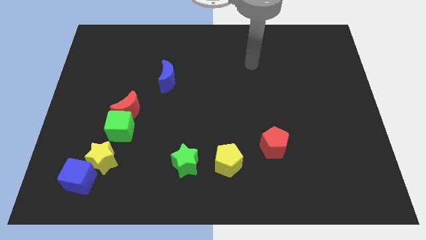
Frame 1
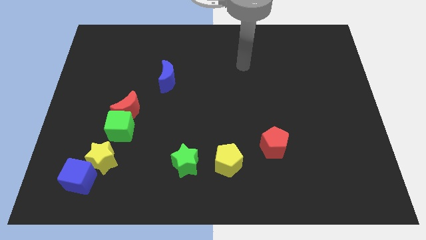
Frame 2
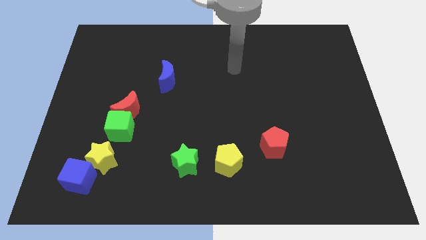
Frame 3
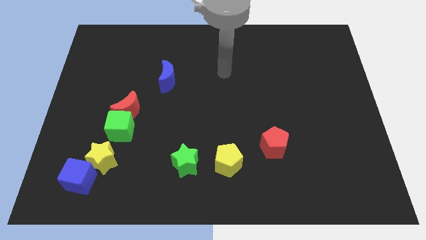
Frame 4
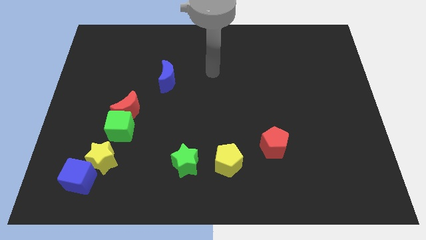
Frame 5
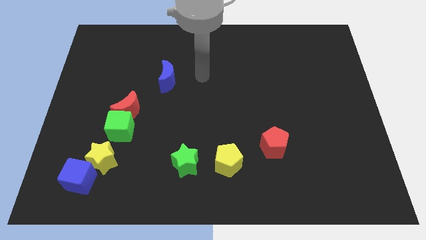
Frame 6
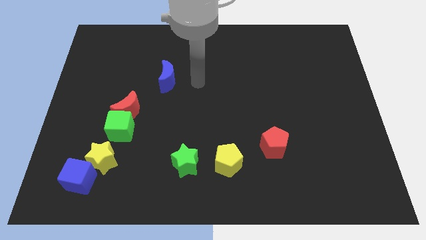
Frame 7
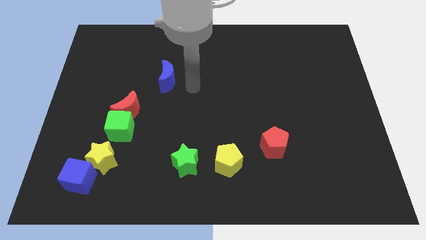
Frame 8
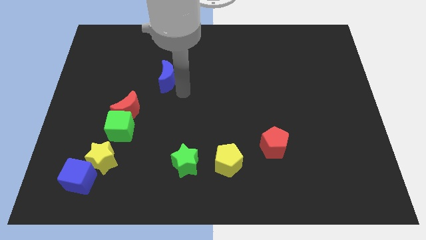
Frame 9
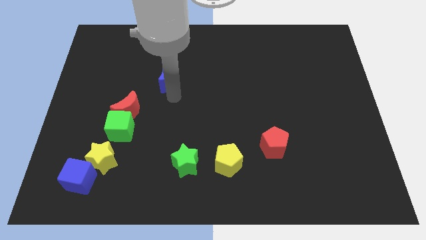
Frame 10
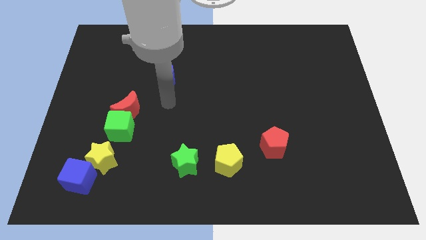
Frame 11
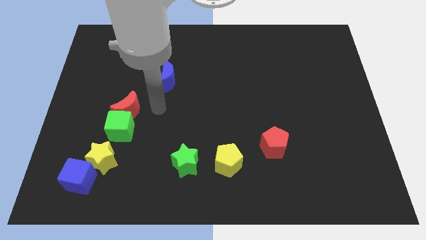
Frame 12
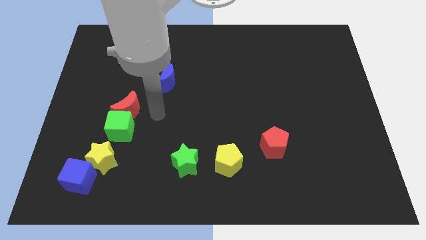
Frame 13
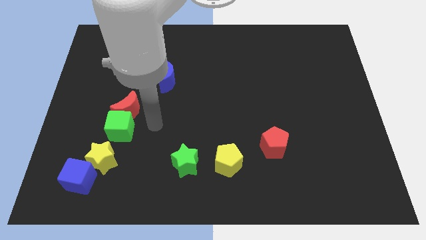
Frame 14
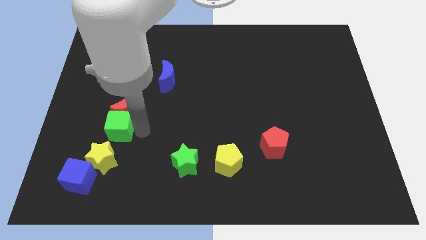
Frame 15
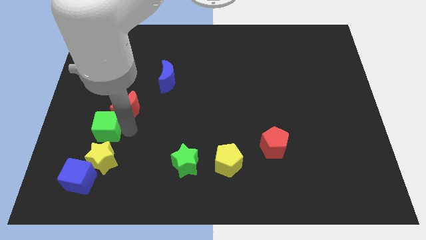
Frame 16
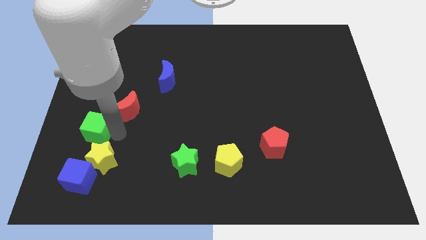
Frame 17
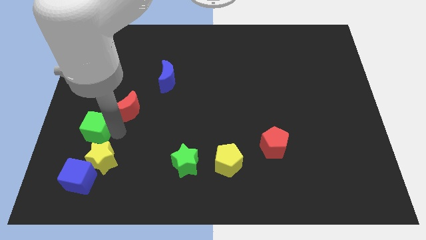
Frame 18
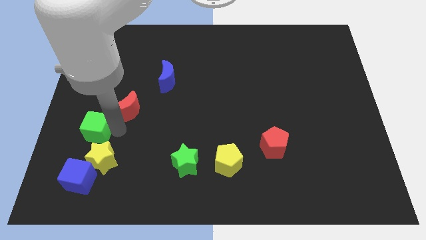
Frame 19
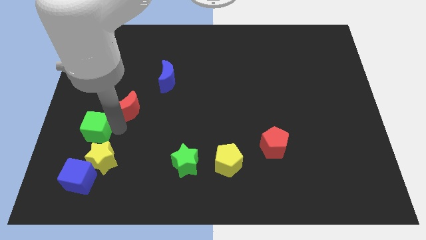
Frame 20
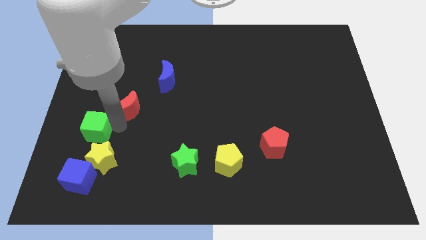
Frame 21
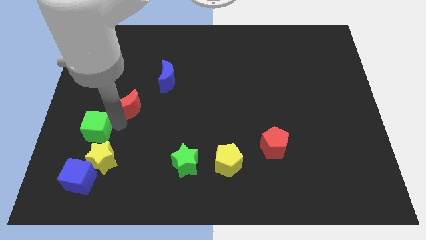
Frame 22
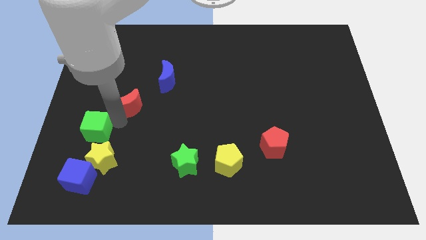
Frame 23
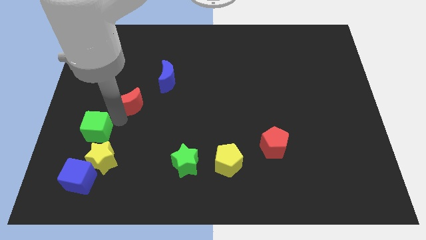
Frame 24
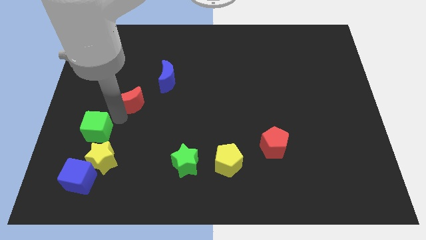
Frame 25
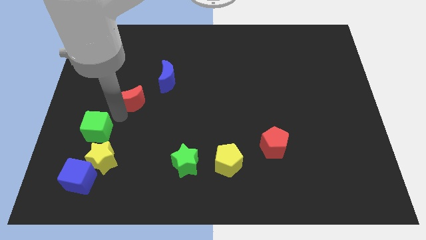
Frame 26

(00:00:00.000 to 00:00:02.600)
pull the red moon apart from the green cube

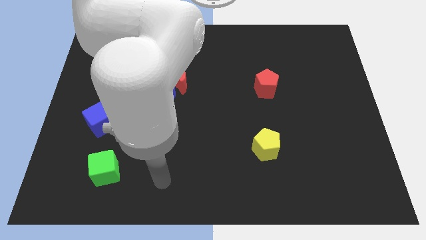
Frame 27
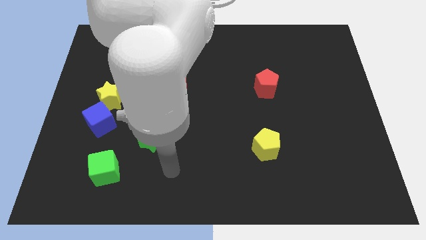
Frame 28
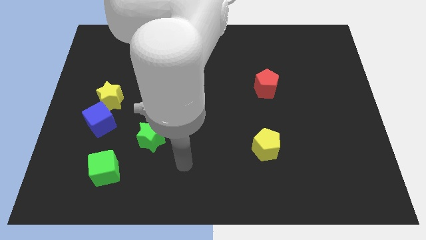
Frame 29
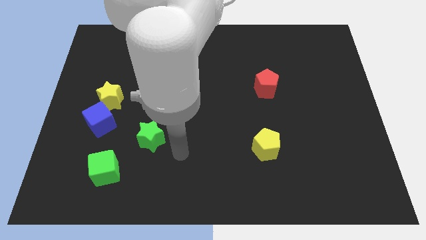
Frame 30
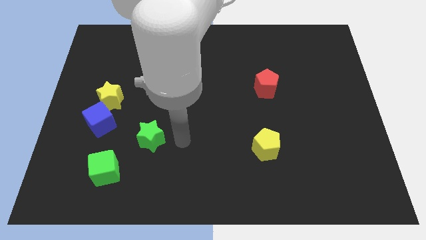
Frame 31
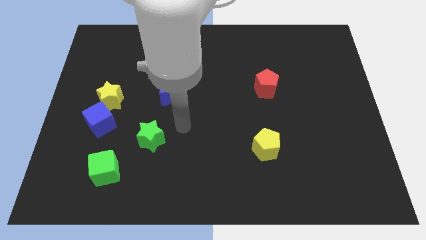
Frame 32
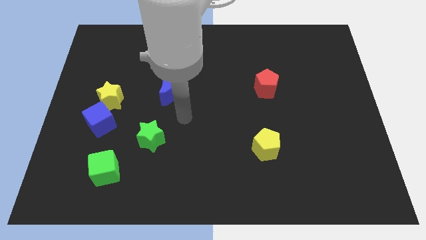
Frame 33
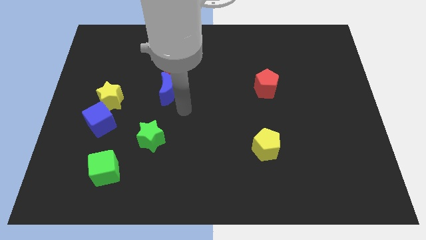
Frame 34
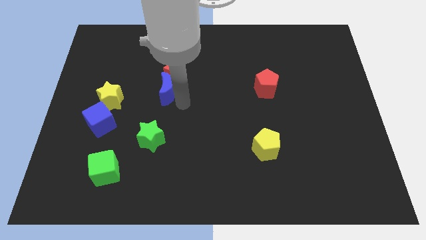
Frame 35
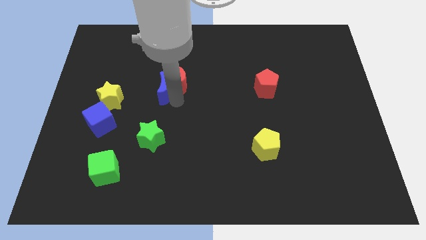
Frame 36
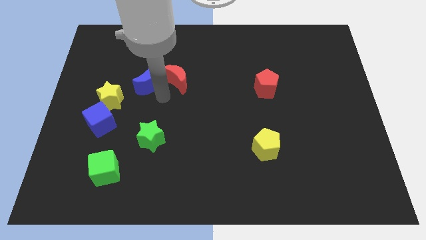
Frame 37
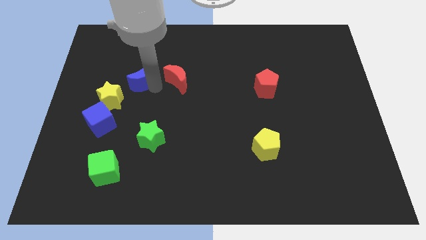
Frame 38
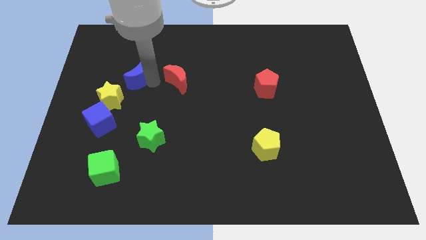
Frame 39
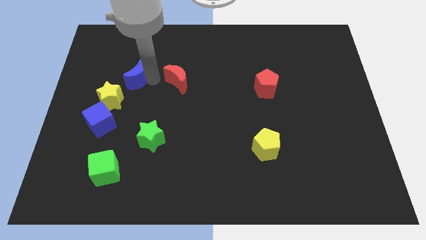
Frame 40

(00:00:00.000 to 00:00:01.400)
pull the red moon apart from the blue moon

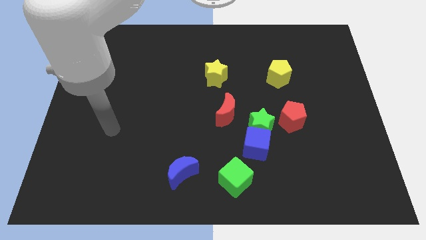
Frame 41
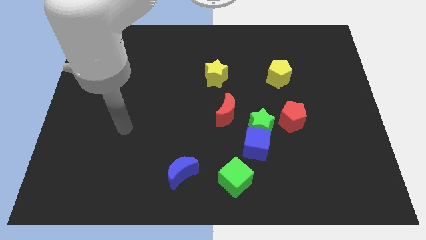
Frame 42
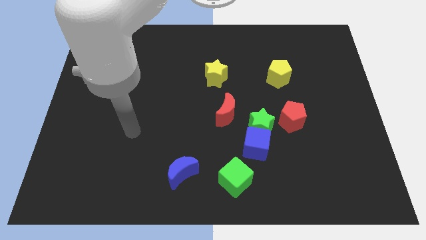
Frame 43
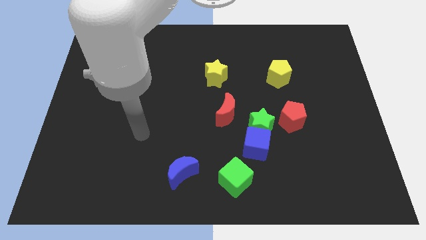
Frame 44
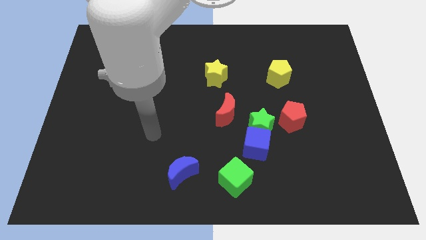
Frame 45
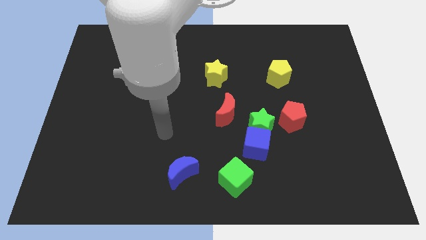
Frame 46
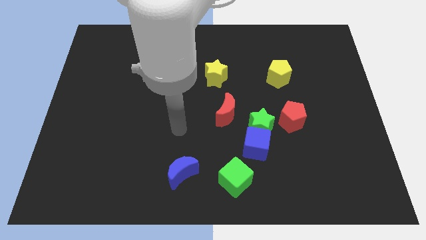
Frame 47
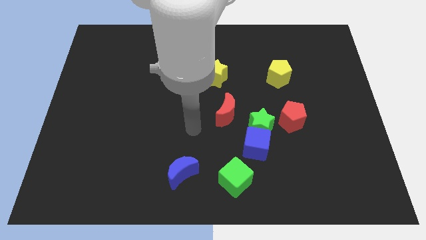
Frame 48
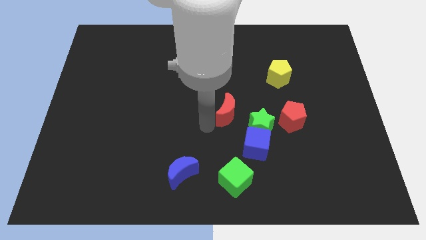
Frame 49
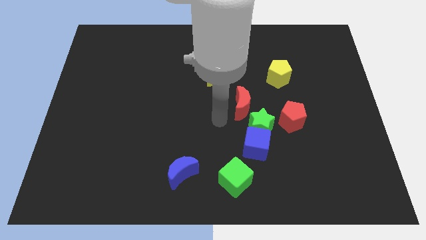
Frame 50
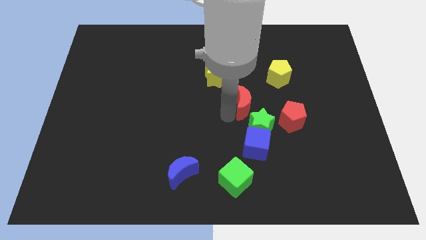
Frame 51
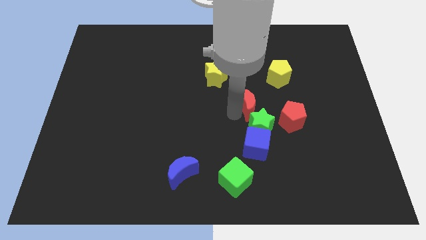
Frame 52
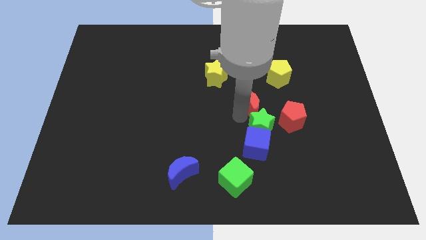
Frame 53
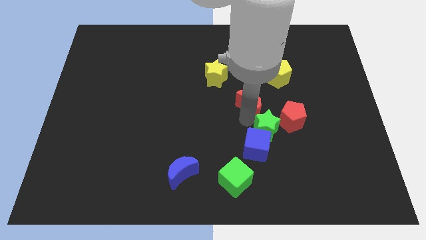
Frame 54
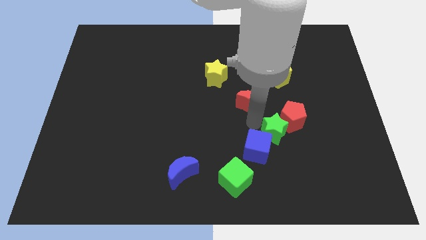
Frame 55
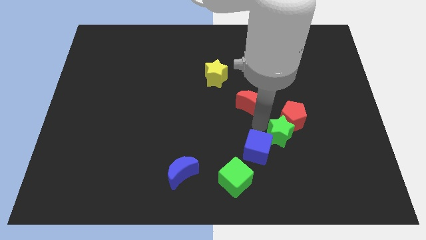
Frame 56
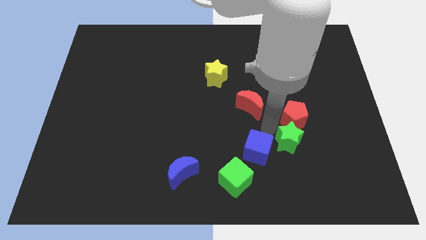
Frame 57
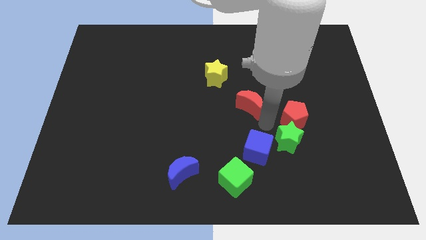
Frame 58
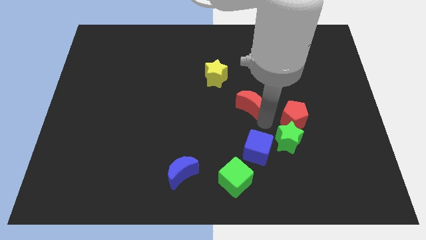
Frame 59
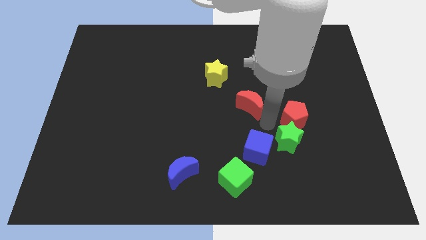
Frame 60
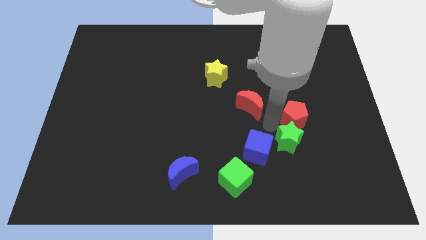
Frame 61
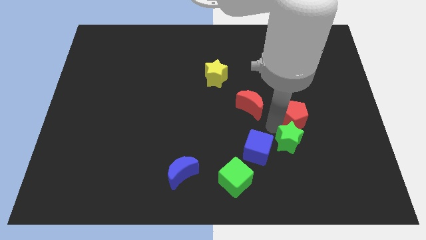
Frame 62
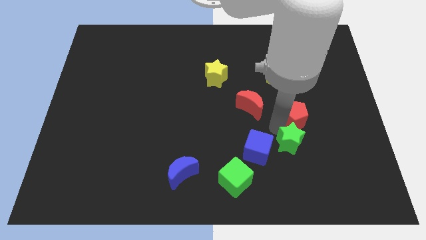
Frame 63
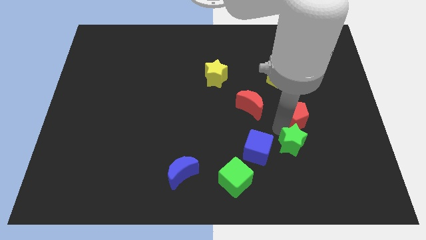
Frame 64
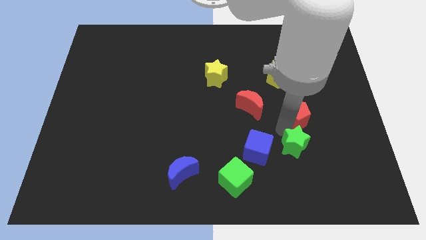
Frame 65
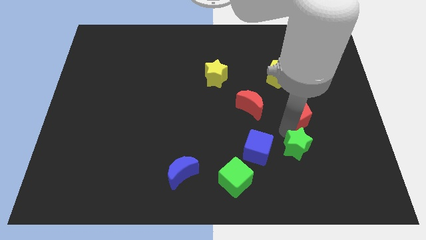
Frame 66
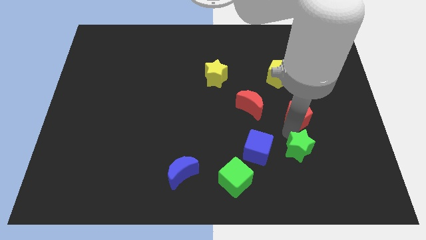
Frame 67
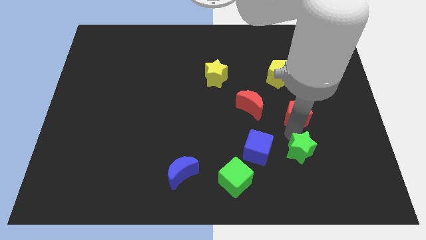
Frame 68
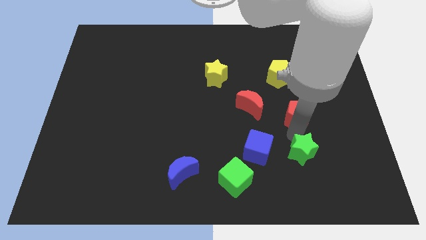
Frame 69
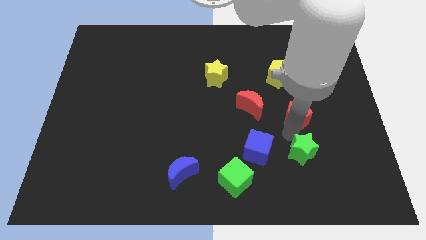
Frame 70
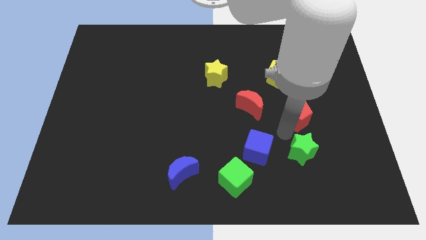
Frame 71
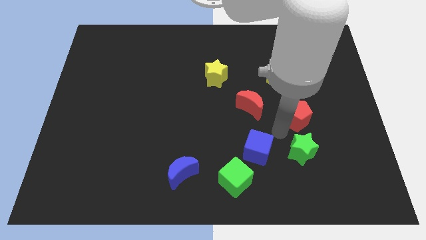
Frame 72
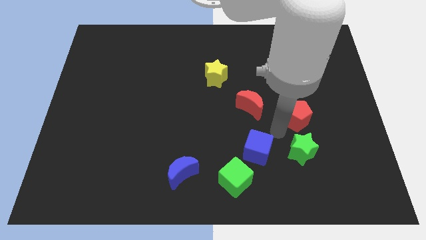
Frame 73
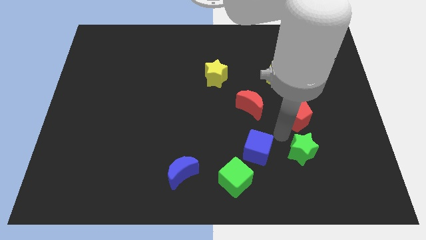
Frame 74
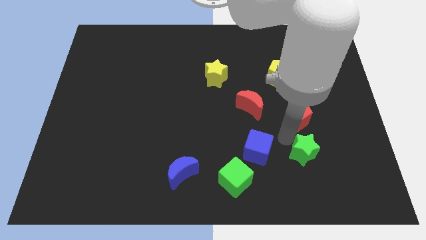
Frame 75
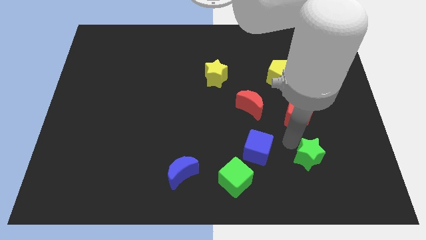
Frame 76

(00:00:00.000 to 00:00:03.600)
separate the green star from the blue cube, red pentagon, and red moon

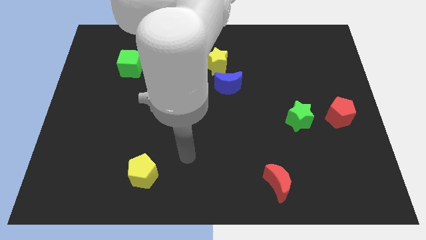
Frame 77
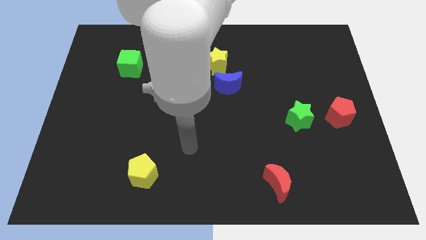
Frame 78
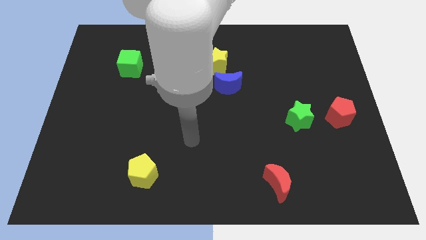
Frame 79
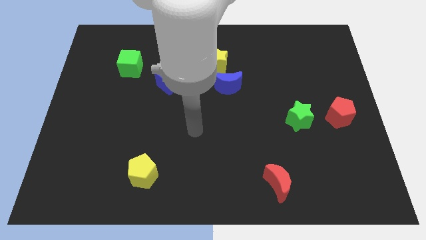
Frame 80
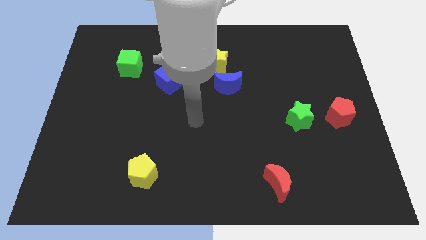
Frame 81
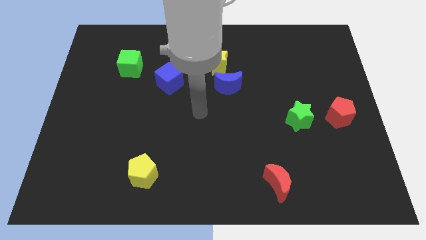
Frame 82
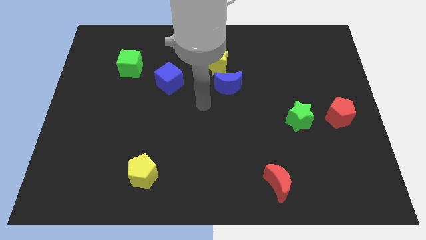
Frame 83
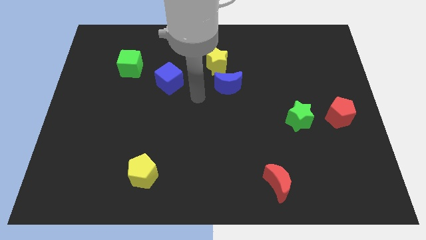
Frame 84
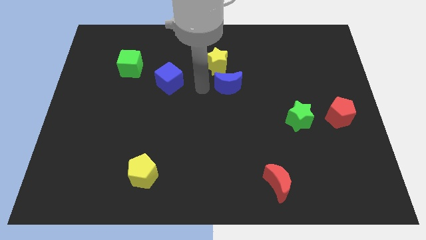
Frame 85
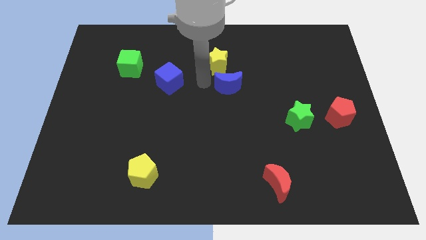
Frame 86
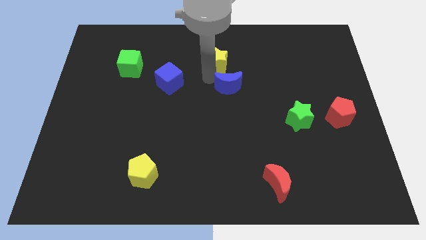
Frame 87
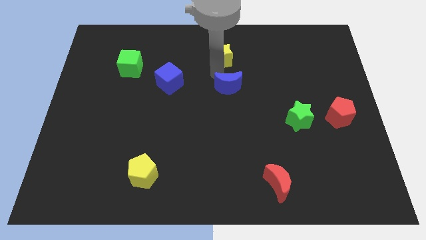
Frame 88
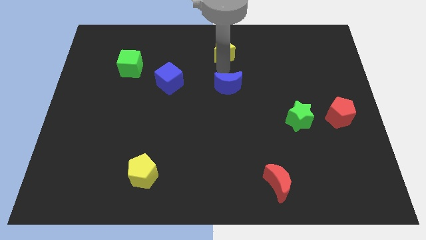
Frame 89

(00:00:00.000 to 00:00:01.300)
pull the blue moon apart from the yellow star

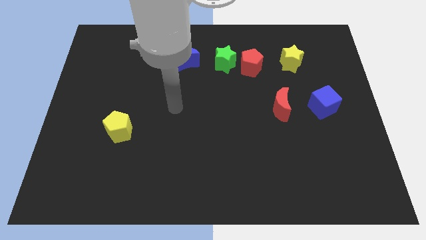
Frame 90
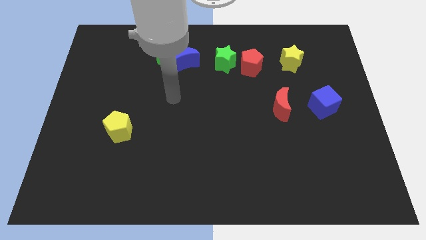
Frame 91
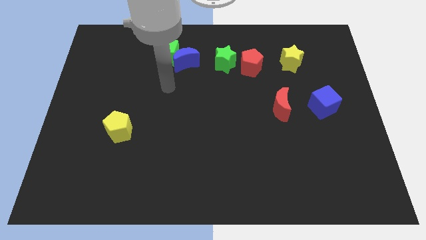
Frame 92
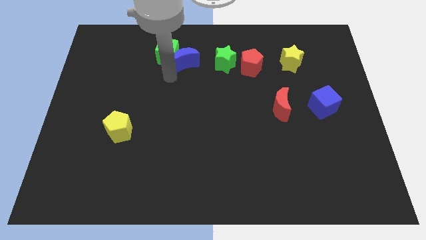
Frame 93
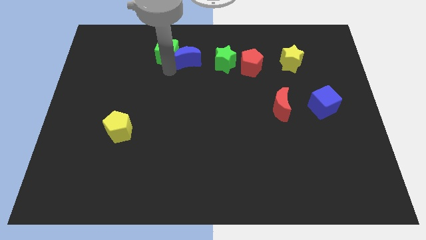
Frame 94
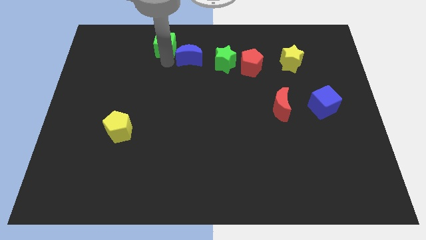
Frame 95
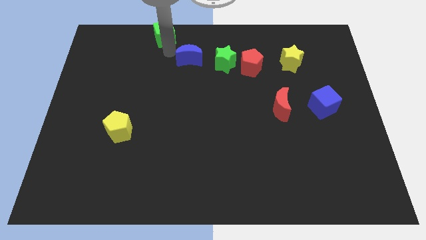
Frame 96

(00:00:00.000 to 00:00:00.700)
separate the blue moon from the green cube
